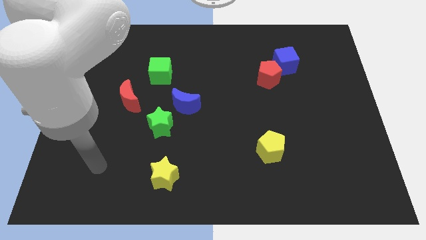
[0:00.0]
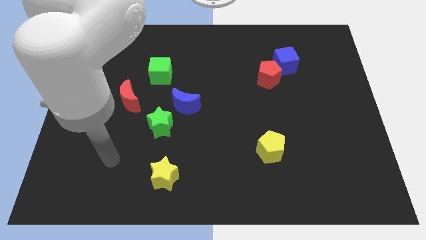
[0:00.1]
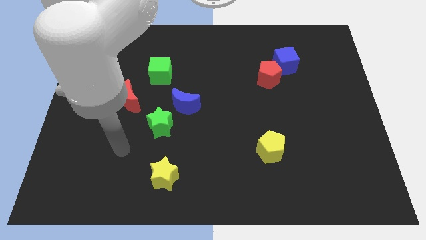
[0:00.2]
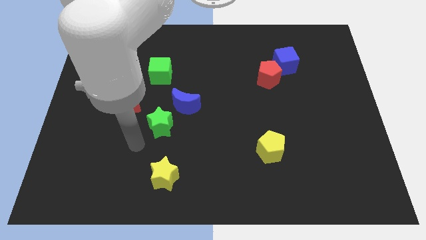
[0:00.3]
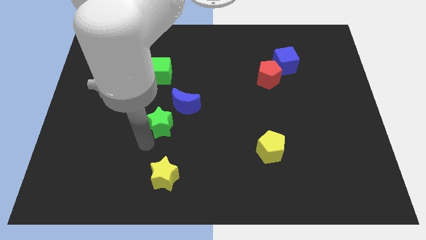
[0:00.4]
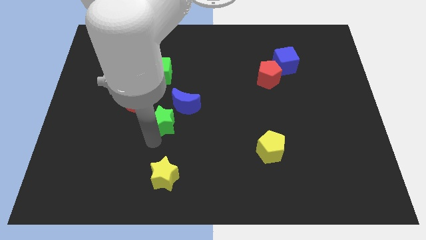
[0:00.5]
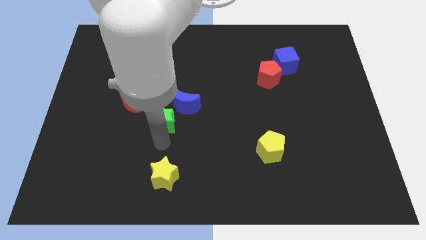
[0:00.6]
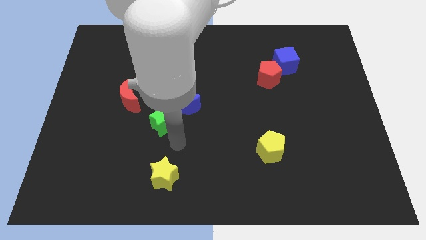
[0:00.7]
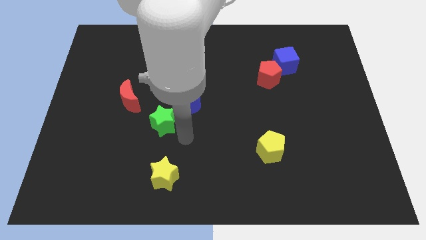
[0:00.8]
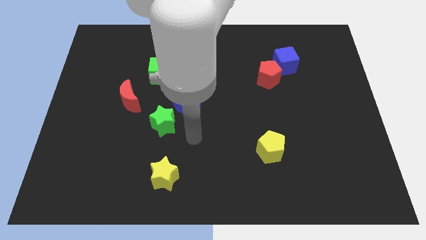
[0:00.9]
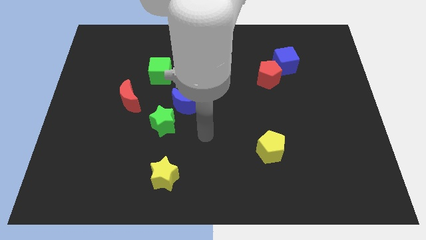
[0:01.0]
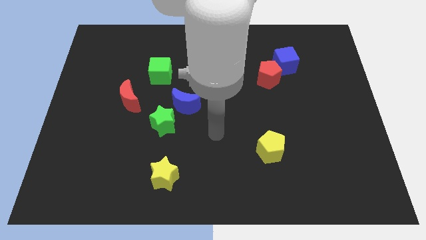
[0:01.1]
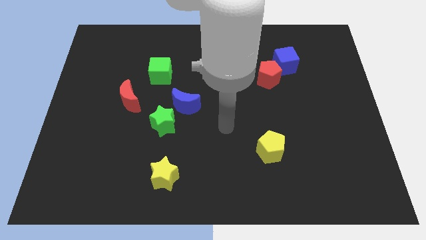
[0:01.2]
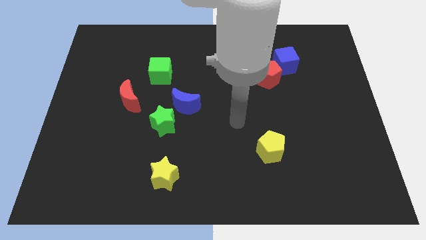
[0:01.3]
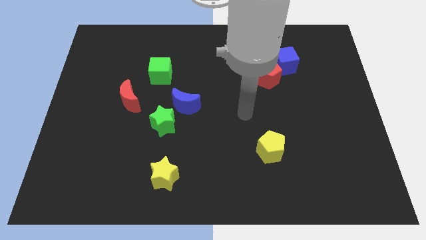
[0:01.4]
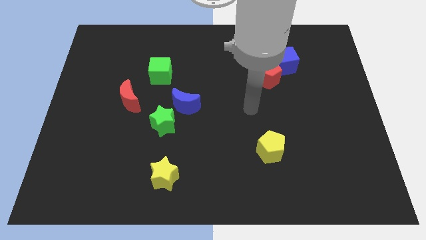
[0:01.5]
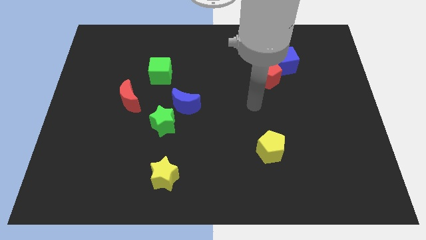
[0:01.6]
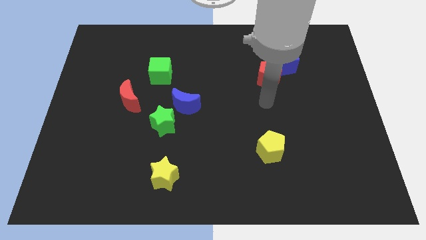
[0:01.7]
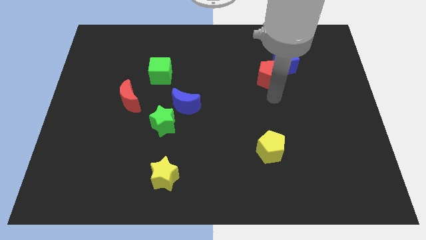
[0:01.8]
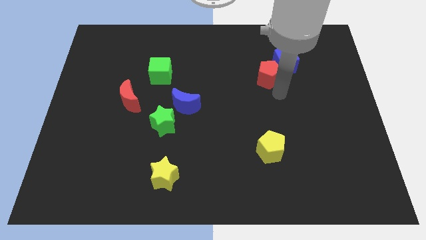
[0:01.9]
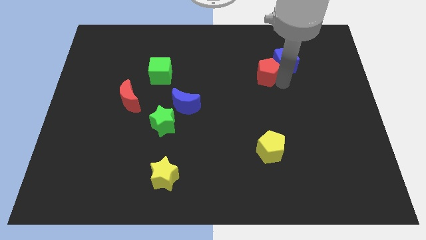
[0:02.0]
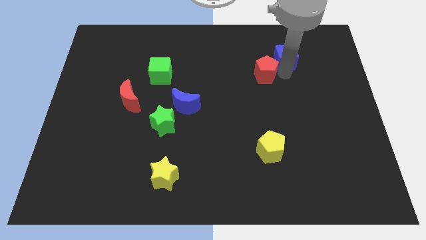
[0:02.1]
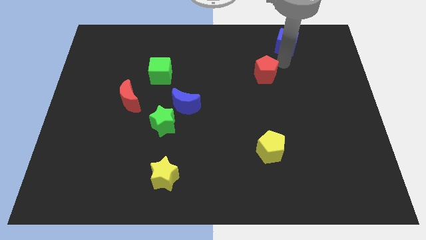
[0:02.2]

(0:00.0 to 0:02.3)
separate the red pentagon from the blue cube

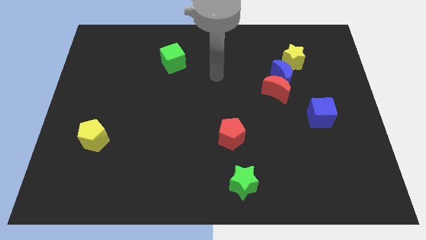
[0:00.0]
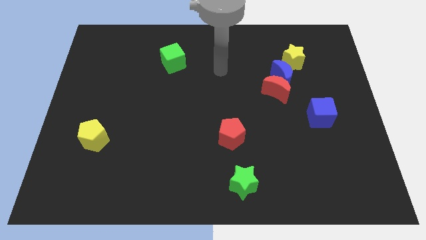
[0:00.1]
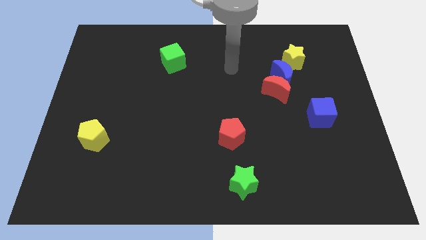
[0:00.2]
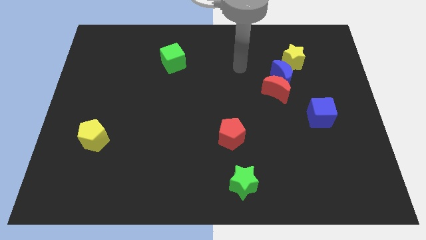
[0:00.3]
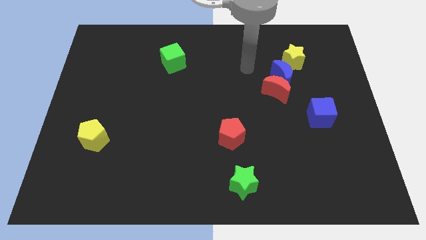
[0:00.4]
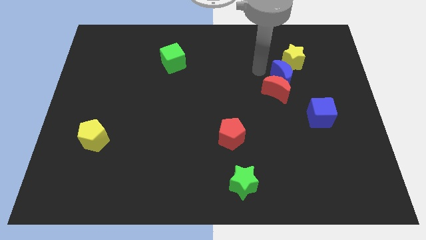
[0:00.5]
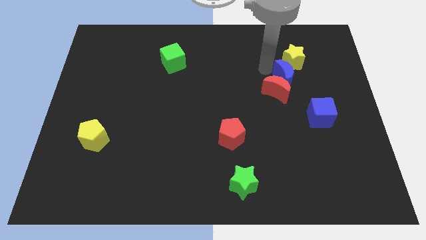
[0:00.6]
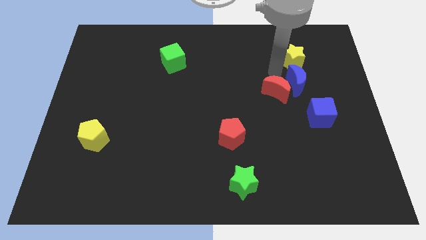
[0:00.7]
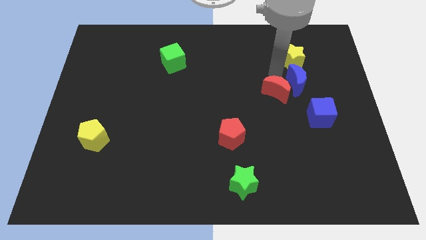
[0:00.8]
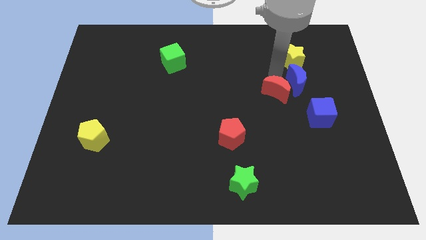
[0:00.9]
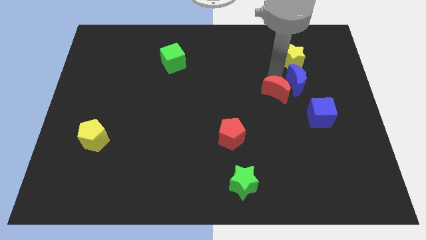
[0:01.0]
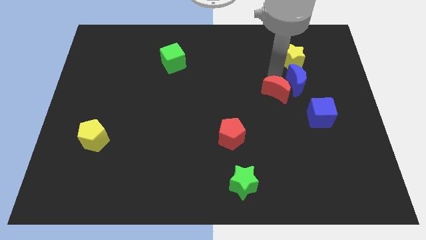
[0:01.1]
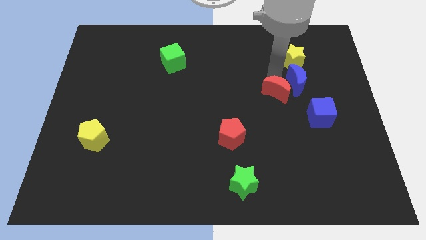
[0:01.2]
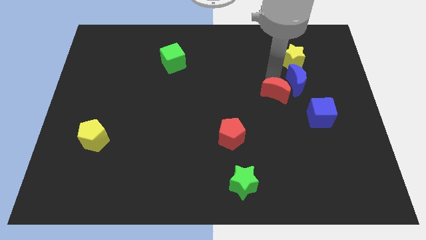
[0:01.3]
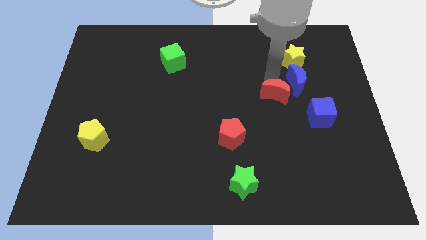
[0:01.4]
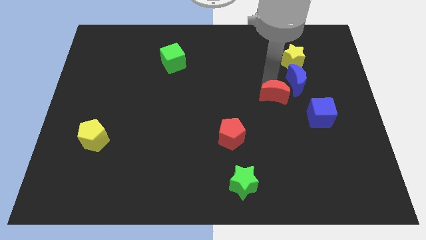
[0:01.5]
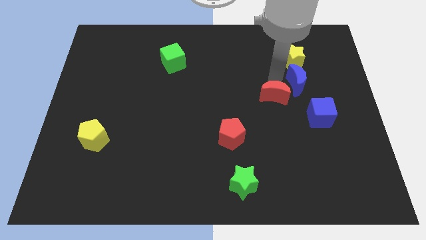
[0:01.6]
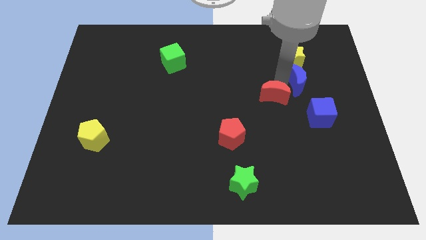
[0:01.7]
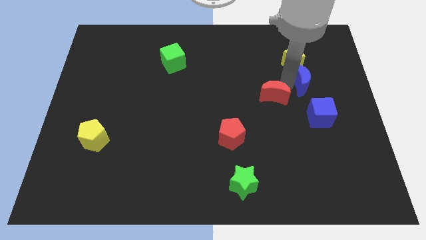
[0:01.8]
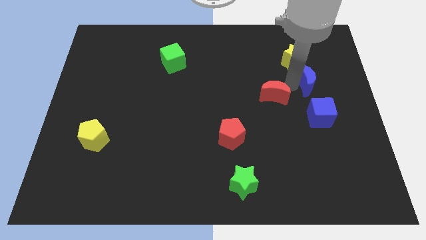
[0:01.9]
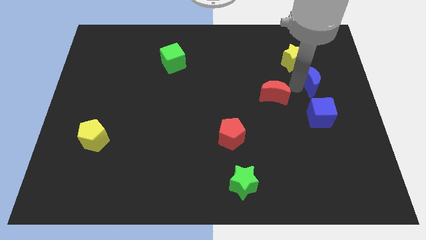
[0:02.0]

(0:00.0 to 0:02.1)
separate the red moon from the blue moon

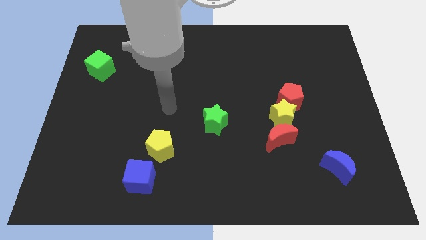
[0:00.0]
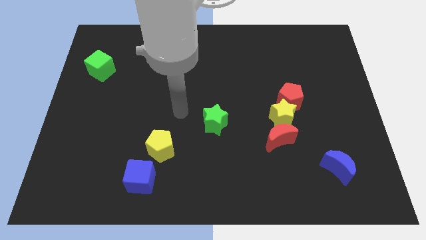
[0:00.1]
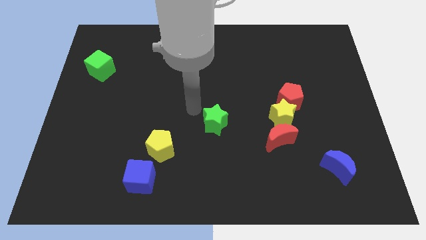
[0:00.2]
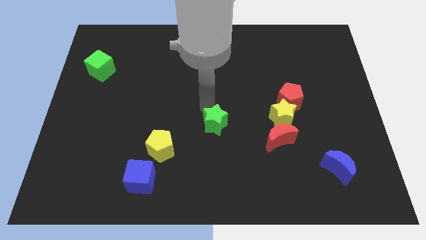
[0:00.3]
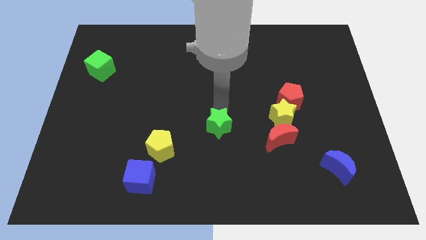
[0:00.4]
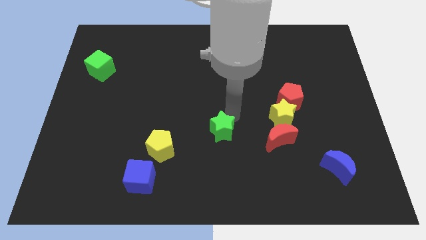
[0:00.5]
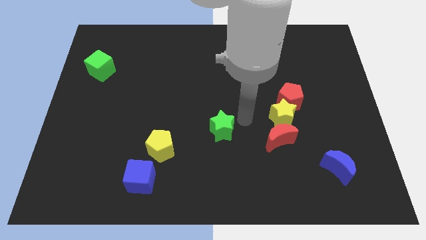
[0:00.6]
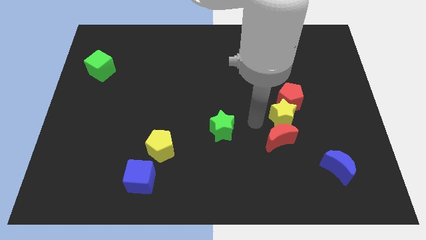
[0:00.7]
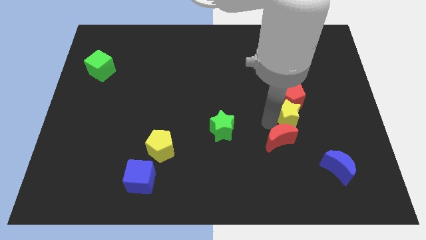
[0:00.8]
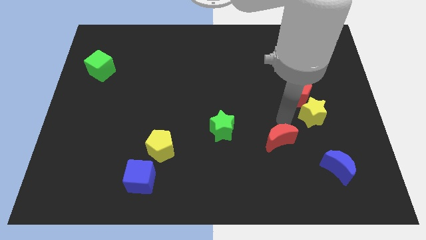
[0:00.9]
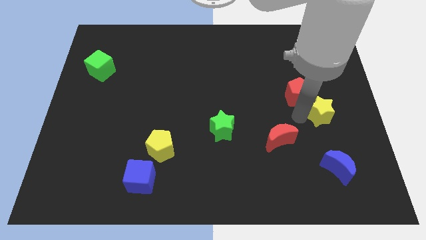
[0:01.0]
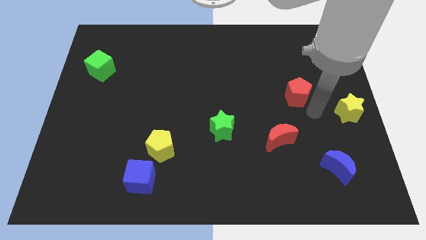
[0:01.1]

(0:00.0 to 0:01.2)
move the red pentagon away from the yellow star

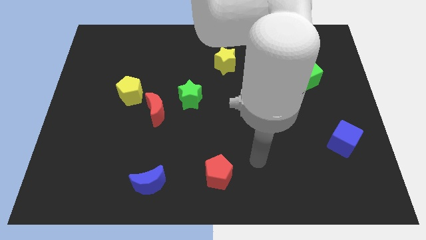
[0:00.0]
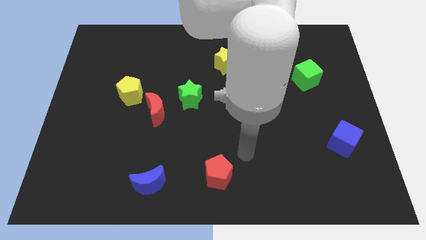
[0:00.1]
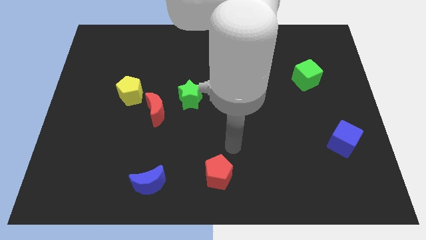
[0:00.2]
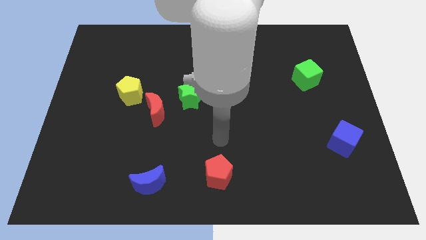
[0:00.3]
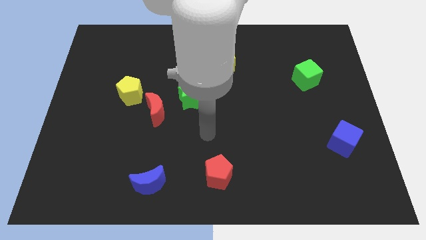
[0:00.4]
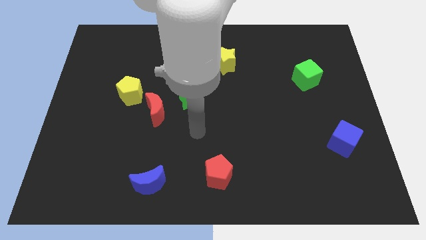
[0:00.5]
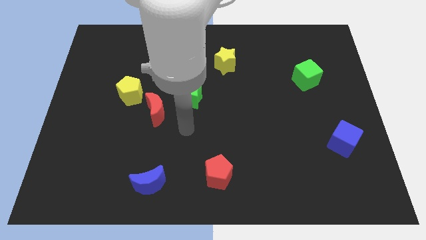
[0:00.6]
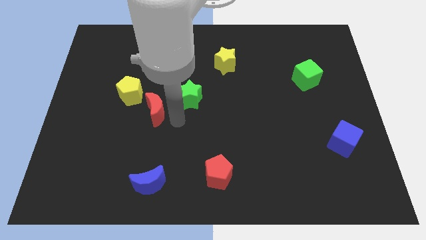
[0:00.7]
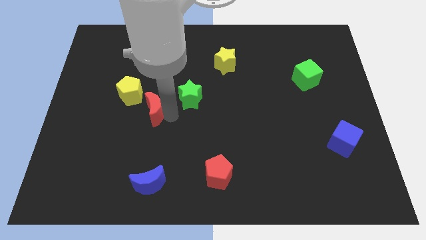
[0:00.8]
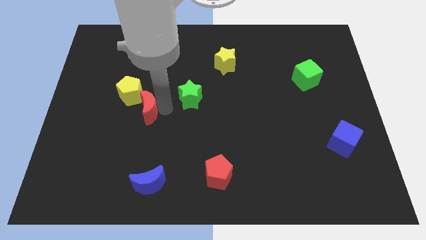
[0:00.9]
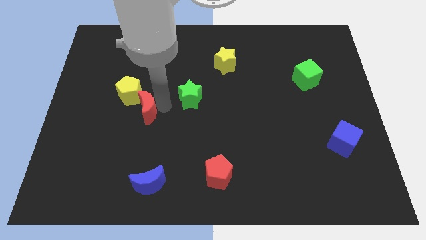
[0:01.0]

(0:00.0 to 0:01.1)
pull the green star apart from the red moon

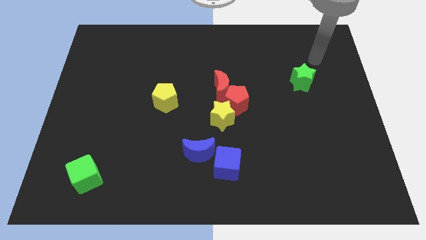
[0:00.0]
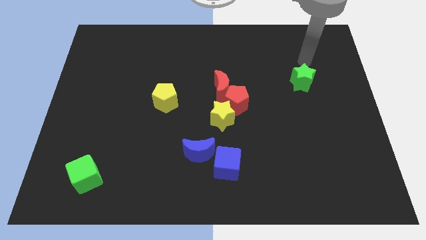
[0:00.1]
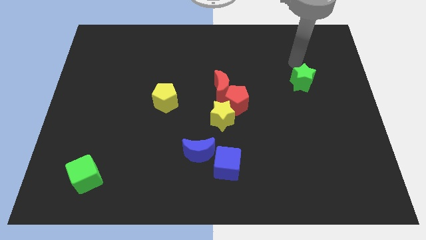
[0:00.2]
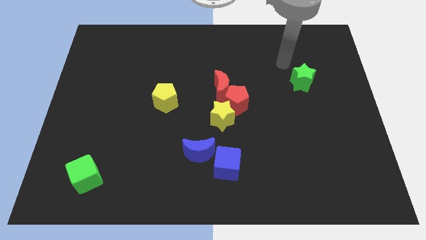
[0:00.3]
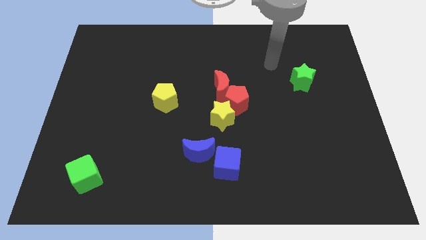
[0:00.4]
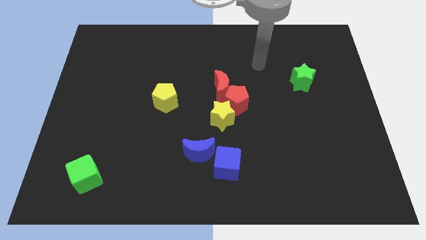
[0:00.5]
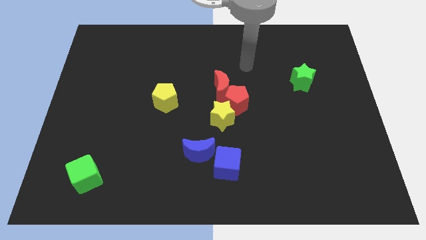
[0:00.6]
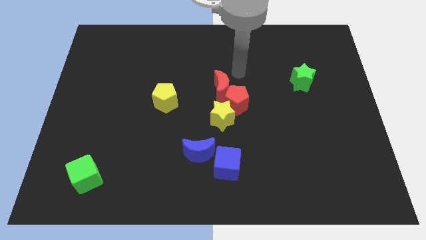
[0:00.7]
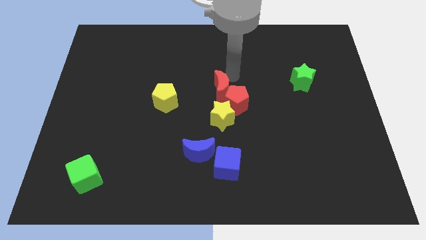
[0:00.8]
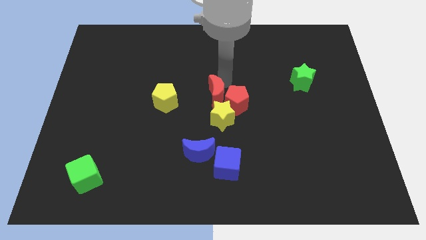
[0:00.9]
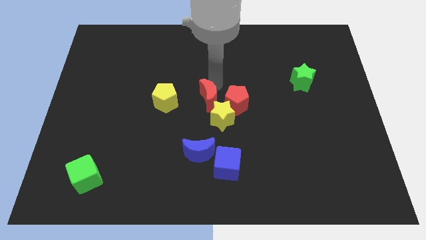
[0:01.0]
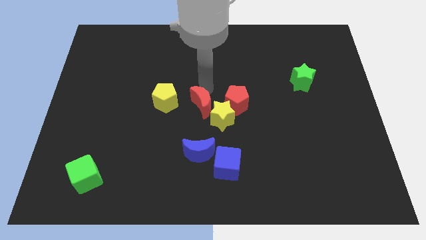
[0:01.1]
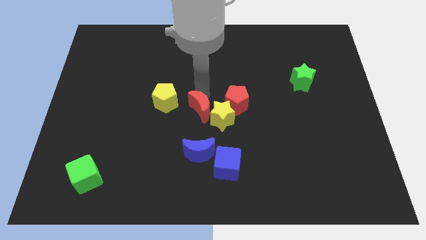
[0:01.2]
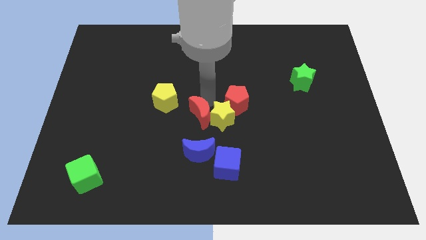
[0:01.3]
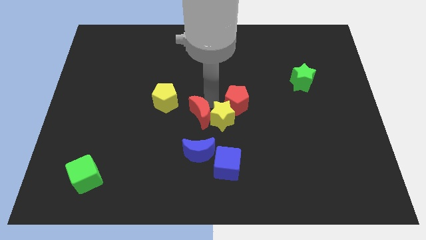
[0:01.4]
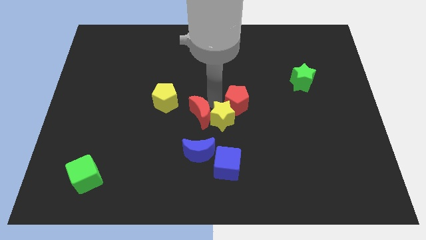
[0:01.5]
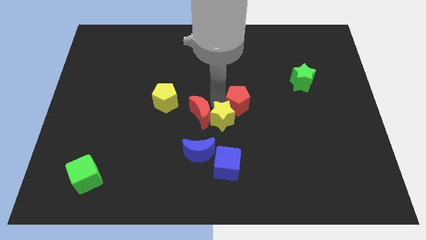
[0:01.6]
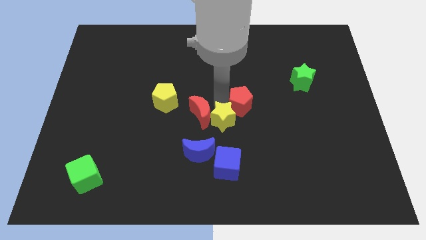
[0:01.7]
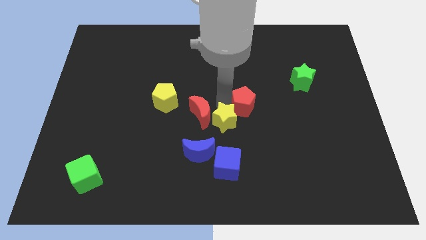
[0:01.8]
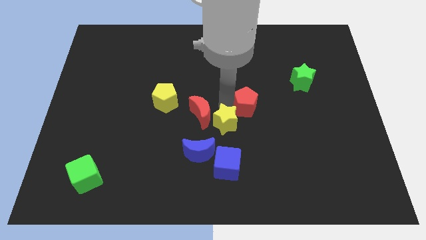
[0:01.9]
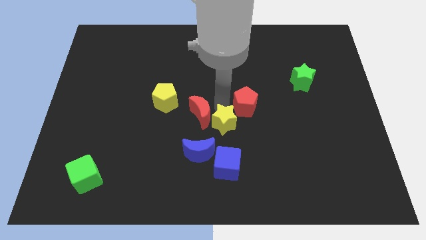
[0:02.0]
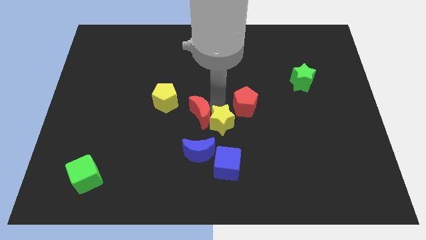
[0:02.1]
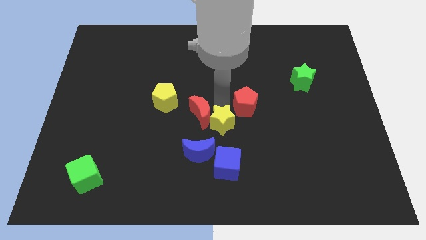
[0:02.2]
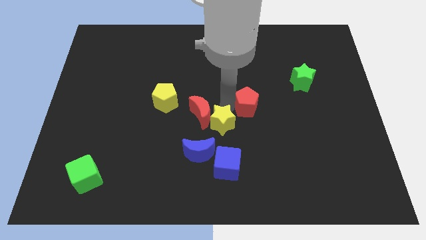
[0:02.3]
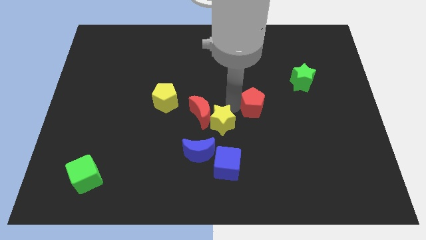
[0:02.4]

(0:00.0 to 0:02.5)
move the red pentagon away from the red moon and yellow star

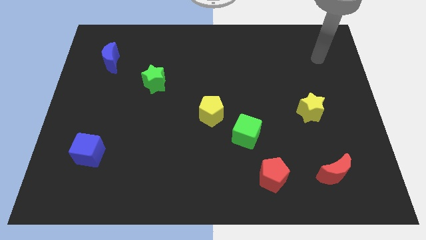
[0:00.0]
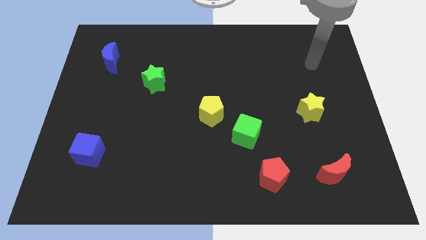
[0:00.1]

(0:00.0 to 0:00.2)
pull the green cube apart from the yellow pentagon
